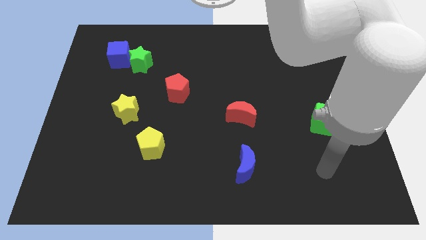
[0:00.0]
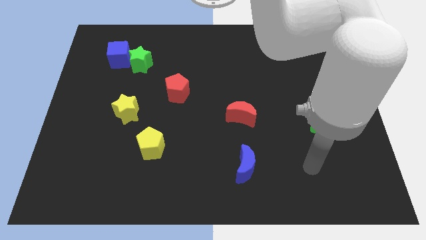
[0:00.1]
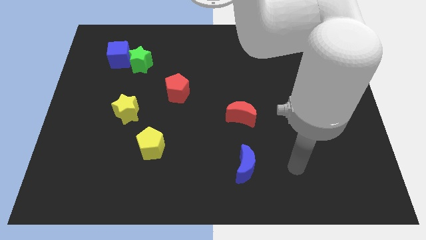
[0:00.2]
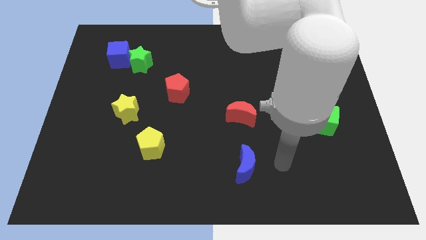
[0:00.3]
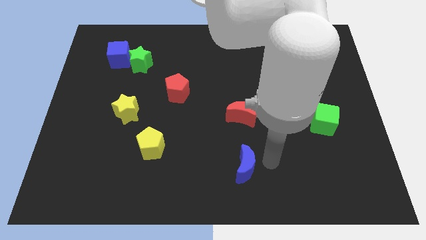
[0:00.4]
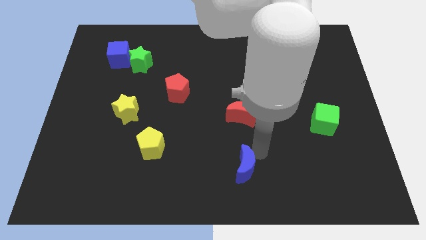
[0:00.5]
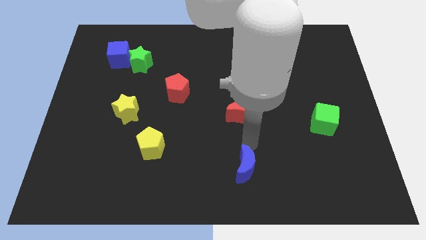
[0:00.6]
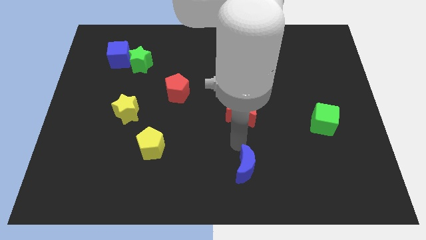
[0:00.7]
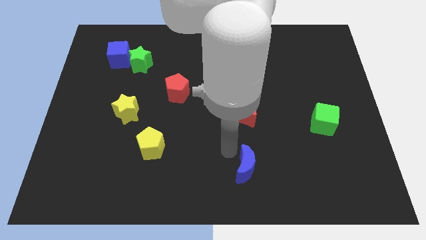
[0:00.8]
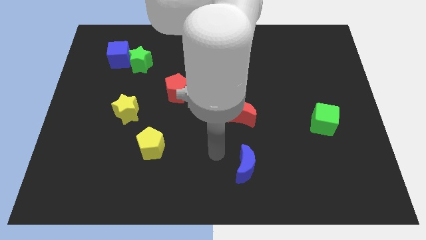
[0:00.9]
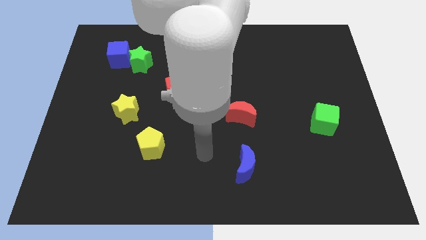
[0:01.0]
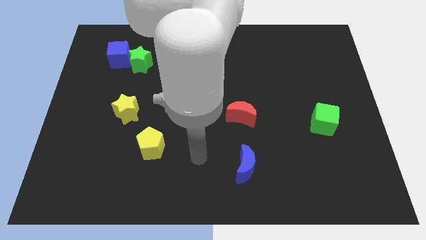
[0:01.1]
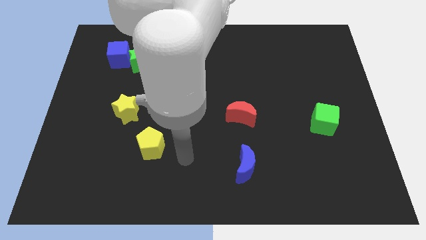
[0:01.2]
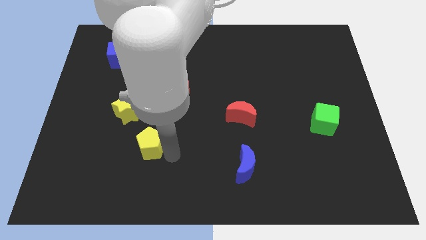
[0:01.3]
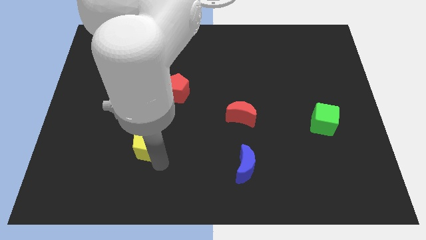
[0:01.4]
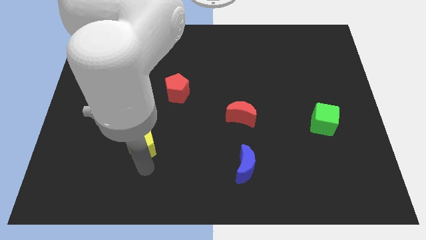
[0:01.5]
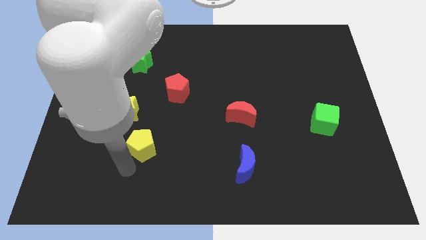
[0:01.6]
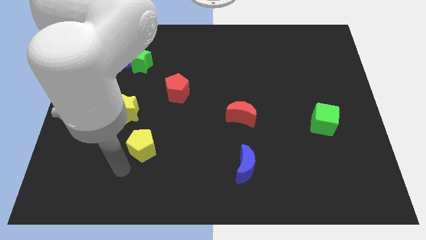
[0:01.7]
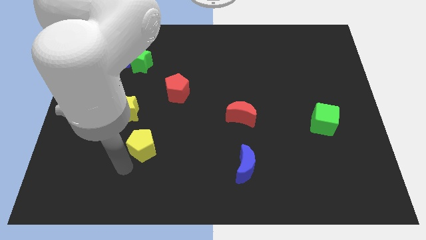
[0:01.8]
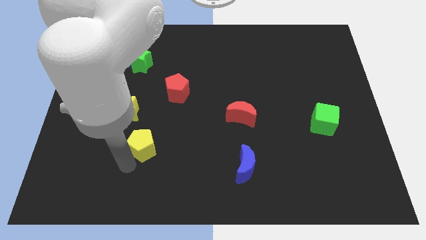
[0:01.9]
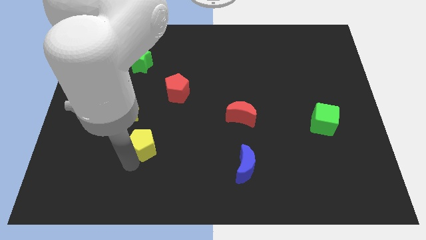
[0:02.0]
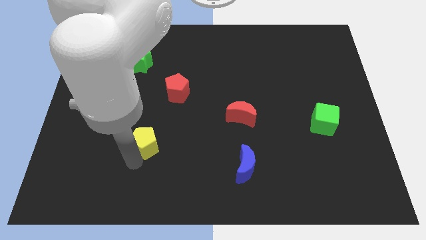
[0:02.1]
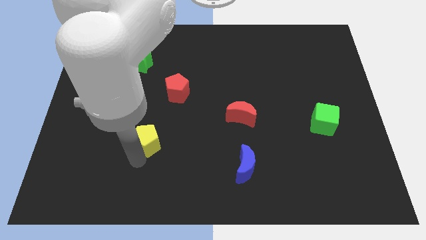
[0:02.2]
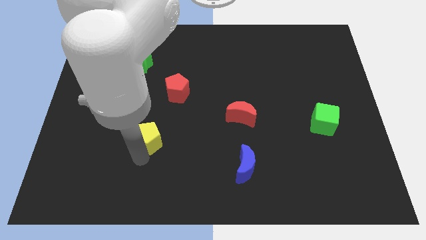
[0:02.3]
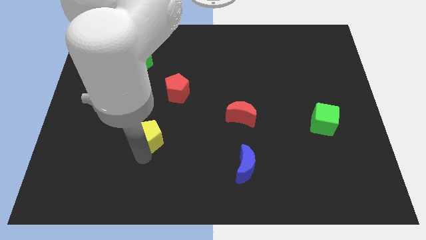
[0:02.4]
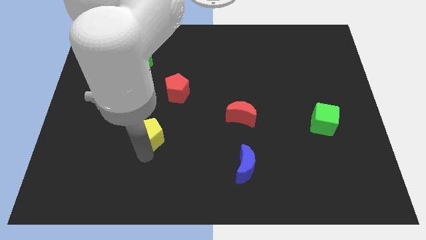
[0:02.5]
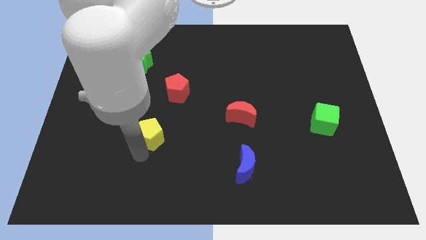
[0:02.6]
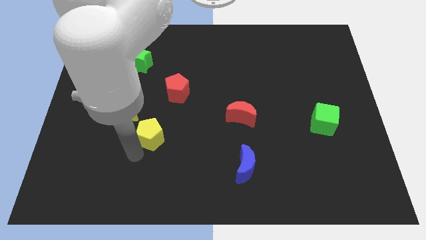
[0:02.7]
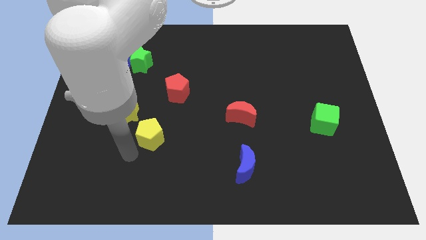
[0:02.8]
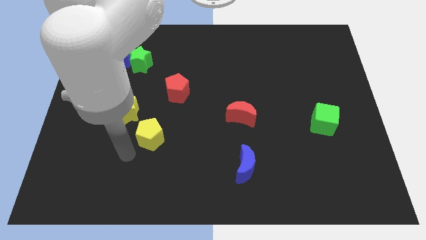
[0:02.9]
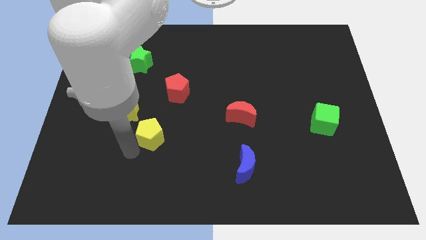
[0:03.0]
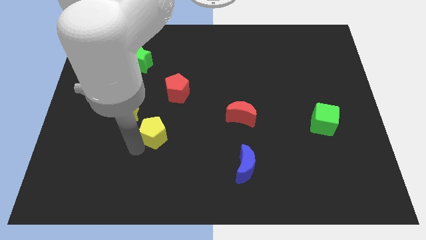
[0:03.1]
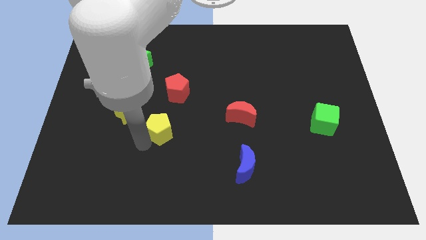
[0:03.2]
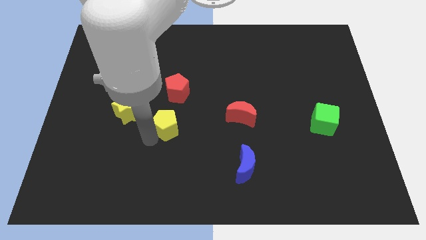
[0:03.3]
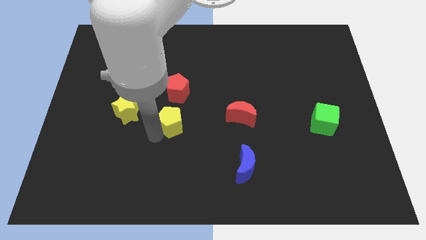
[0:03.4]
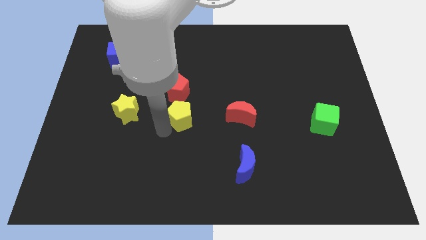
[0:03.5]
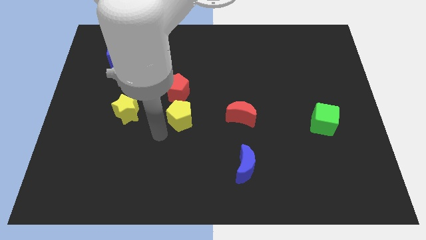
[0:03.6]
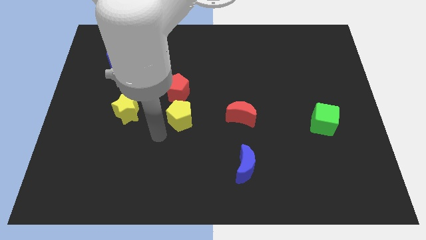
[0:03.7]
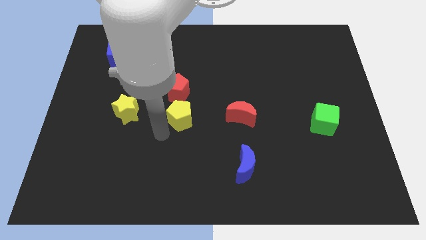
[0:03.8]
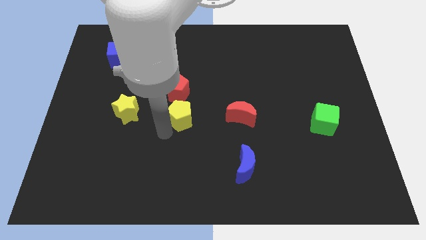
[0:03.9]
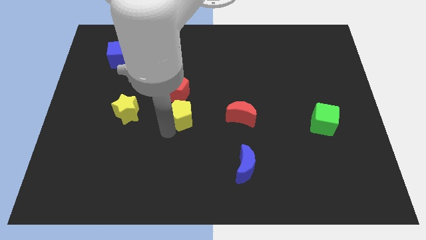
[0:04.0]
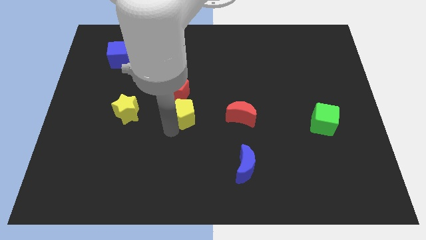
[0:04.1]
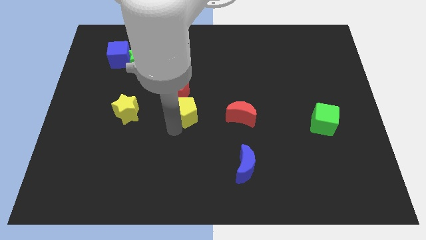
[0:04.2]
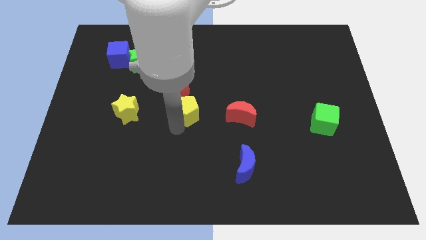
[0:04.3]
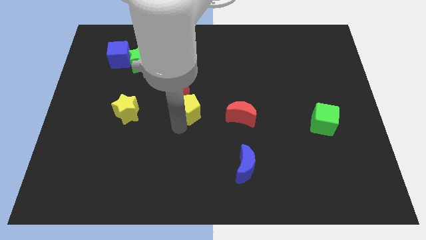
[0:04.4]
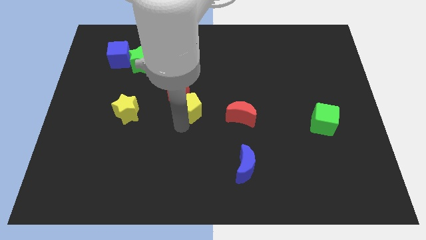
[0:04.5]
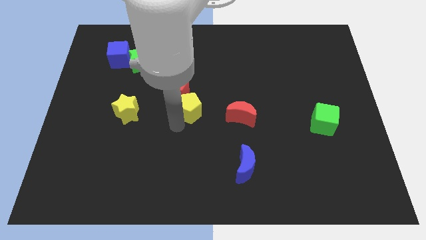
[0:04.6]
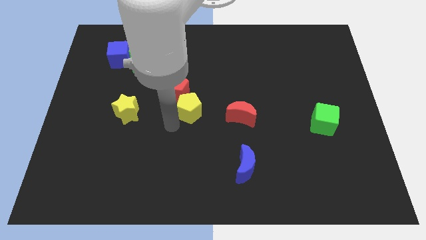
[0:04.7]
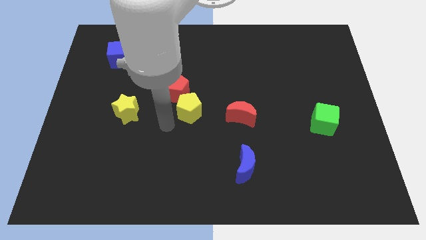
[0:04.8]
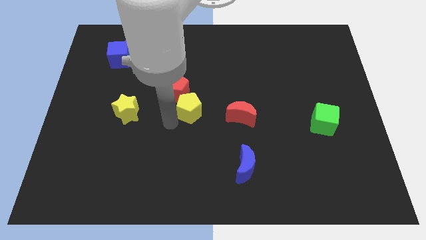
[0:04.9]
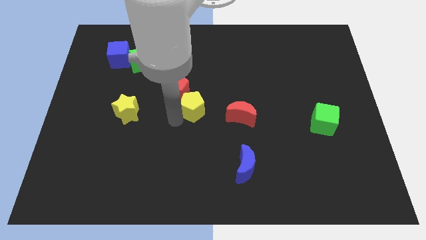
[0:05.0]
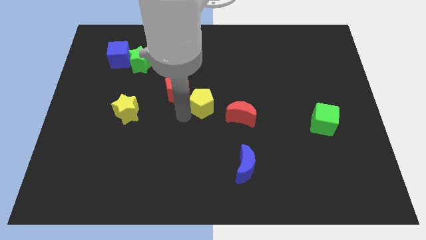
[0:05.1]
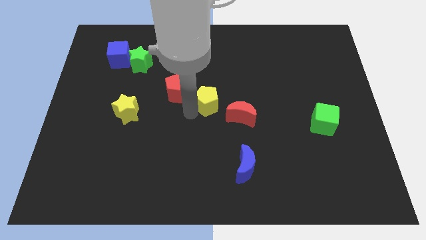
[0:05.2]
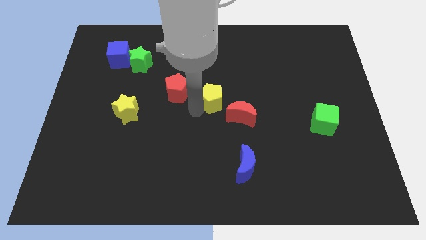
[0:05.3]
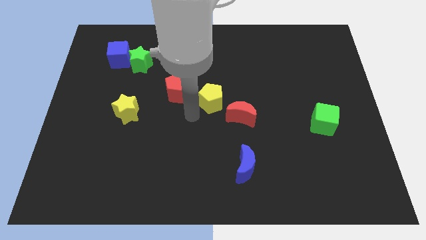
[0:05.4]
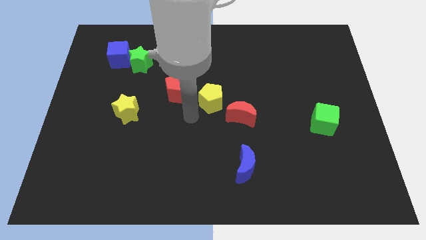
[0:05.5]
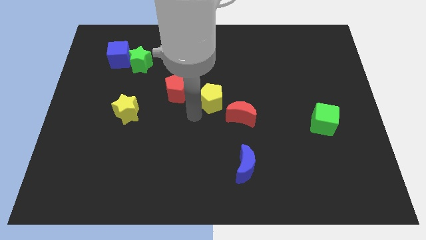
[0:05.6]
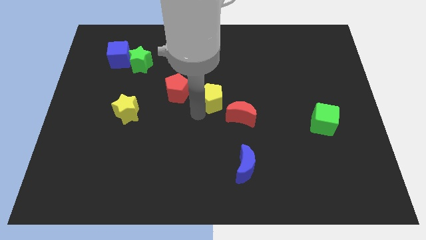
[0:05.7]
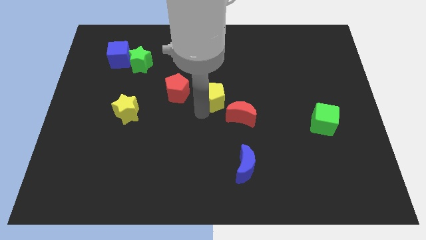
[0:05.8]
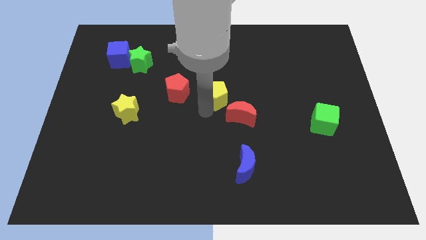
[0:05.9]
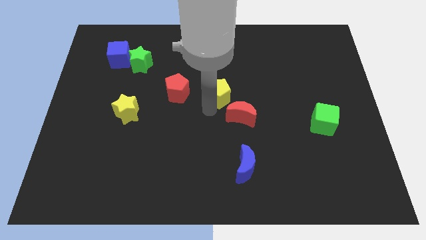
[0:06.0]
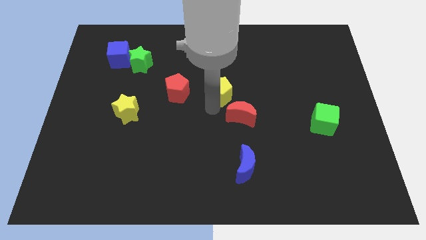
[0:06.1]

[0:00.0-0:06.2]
move the yellow pentagon above the red moon

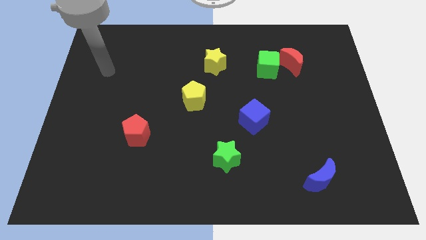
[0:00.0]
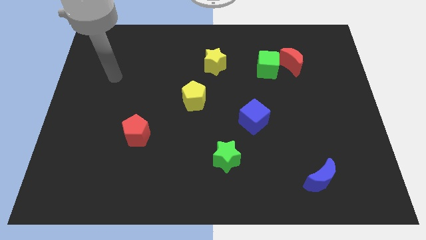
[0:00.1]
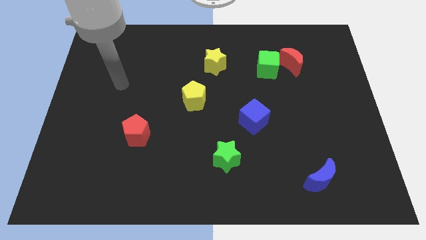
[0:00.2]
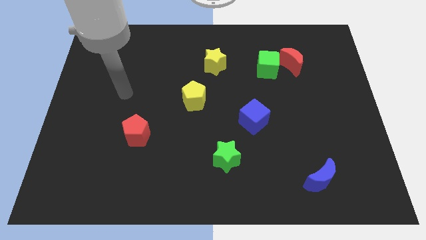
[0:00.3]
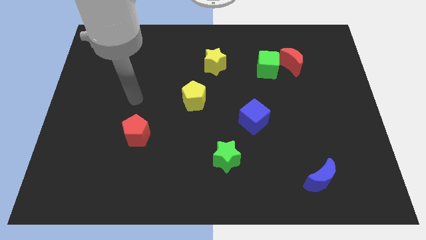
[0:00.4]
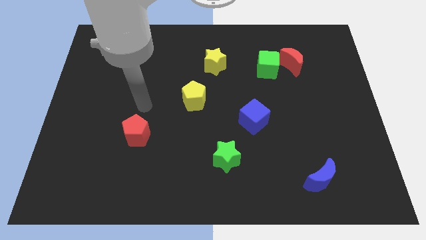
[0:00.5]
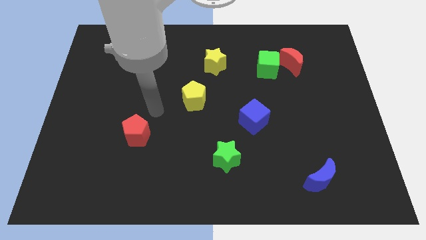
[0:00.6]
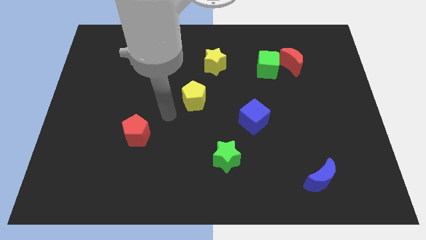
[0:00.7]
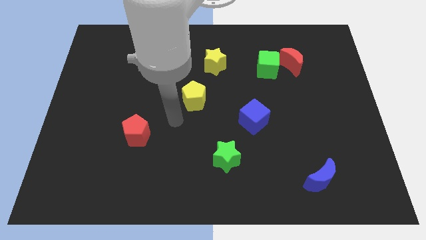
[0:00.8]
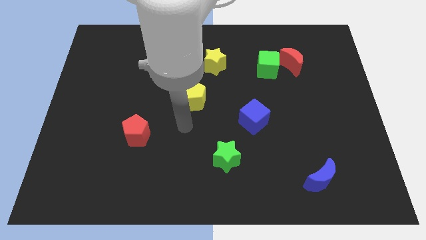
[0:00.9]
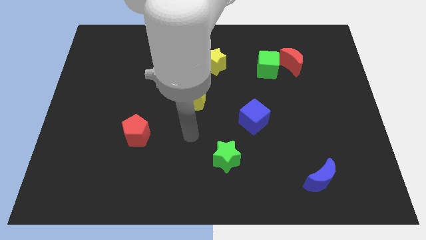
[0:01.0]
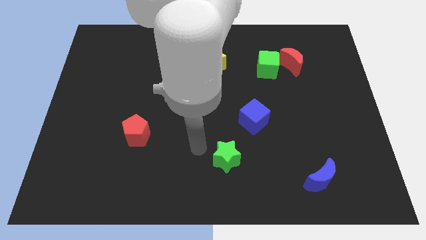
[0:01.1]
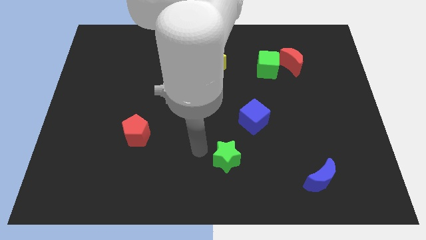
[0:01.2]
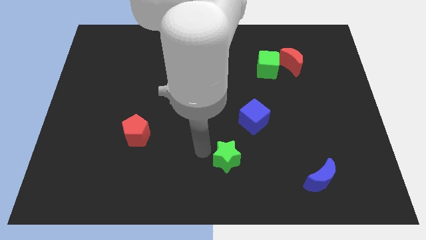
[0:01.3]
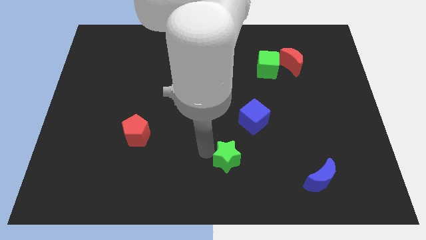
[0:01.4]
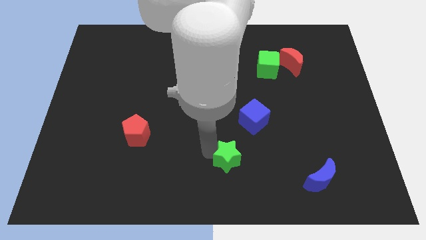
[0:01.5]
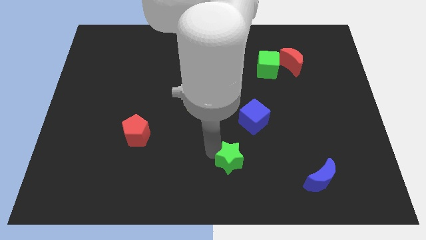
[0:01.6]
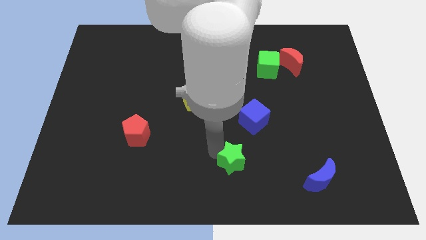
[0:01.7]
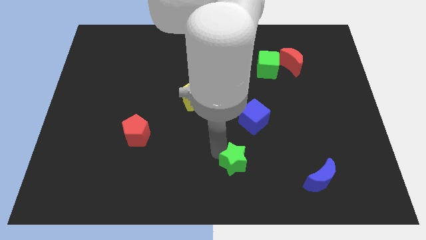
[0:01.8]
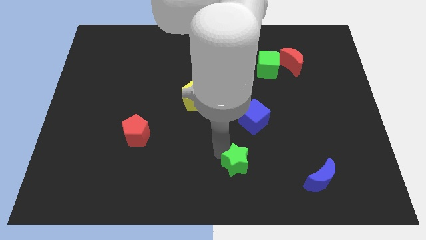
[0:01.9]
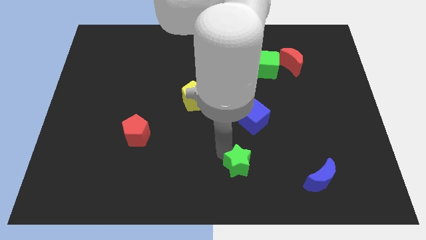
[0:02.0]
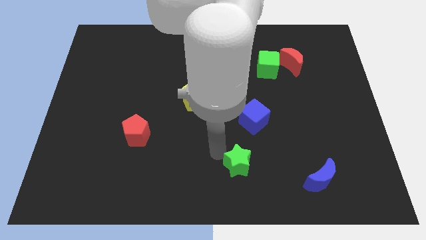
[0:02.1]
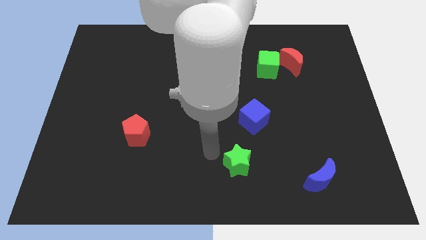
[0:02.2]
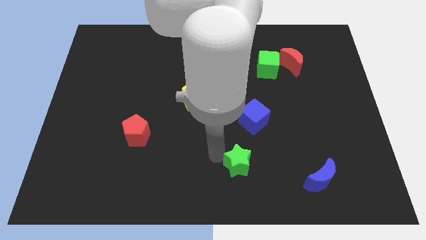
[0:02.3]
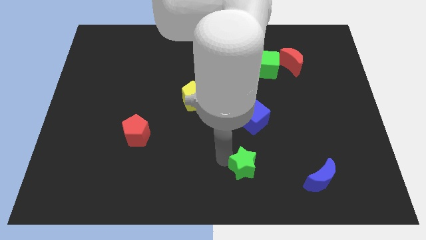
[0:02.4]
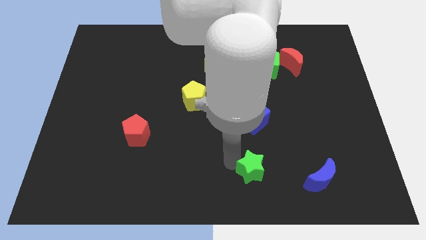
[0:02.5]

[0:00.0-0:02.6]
move the green star to the left of the blue moon
